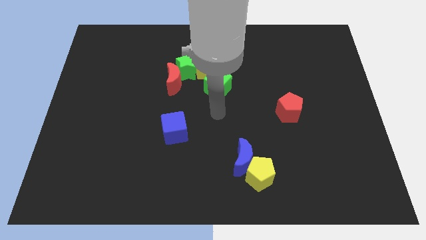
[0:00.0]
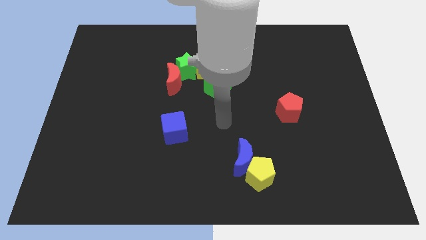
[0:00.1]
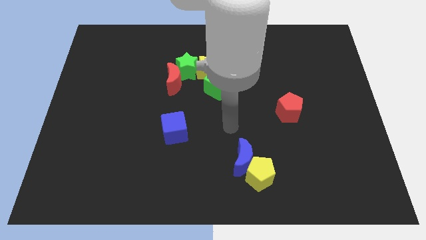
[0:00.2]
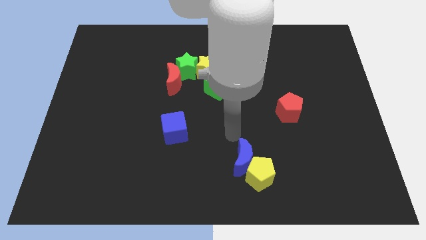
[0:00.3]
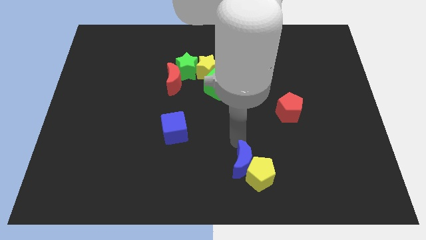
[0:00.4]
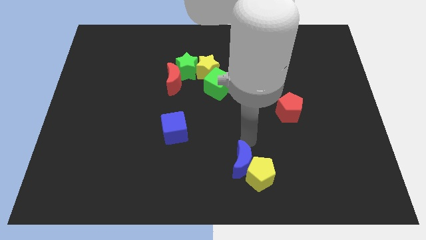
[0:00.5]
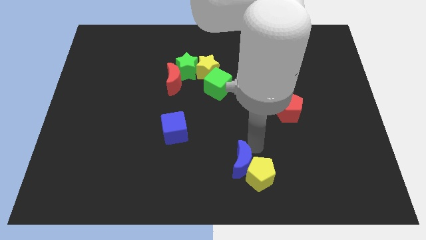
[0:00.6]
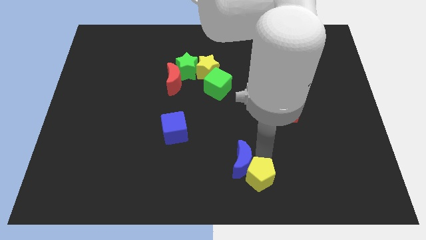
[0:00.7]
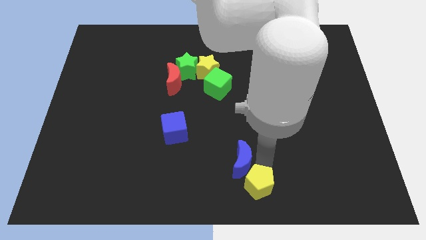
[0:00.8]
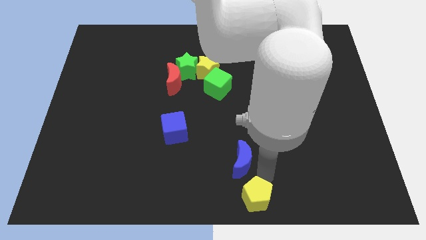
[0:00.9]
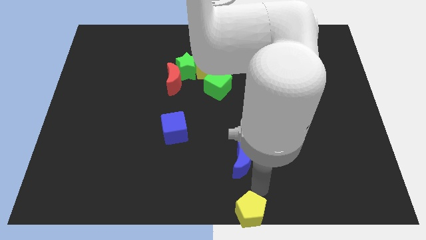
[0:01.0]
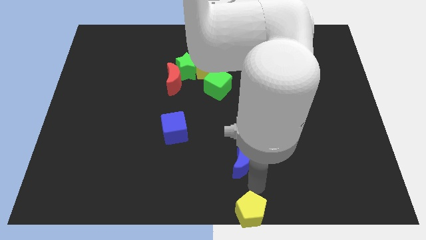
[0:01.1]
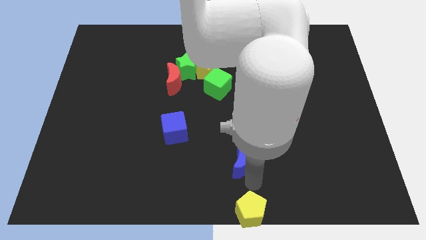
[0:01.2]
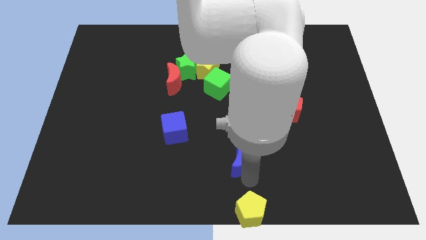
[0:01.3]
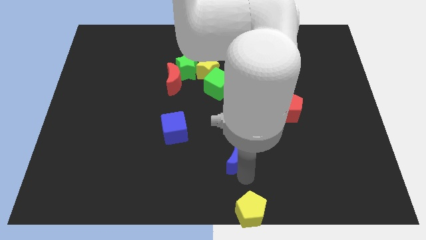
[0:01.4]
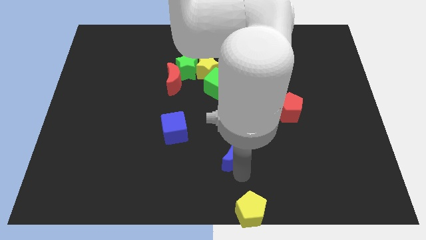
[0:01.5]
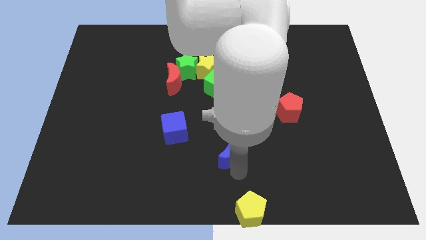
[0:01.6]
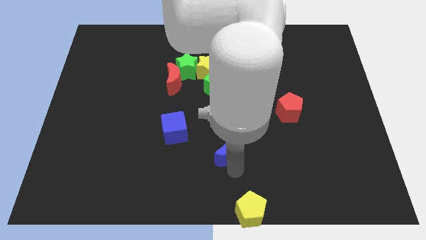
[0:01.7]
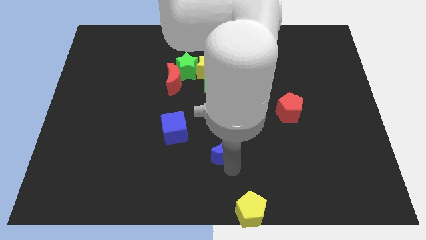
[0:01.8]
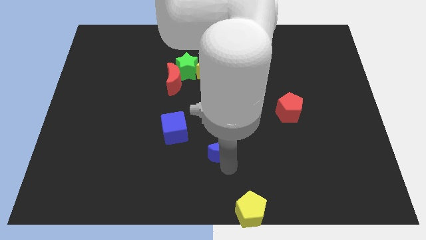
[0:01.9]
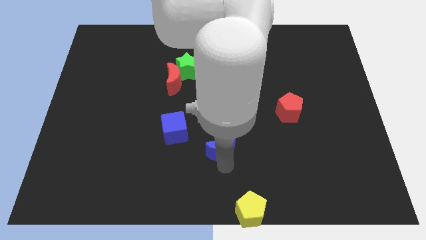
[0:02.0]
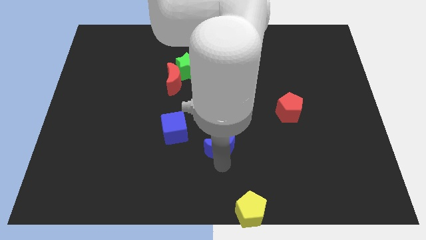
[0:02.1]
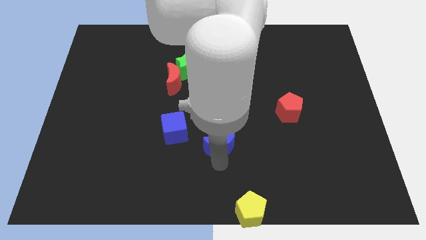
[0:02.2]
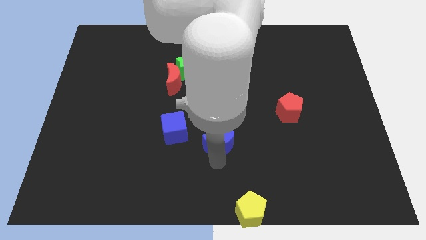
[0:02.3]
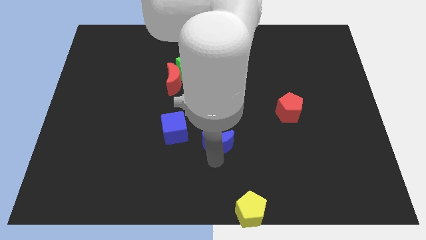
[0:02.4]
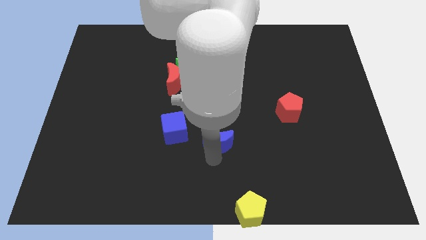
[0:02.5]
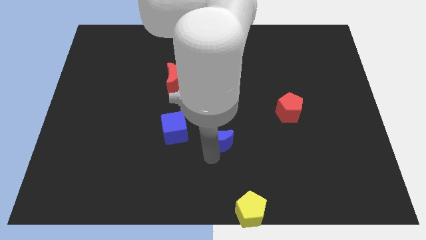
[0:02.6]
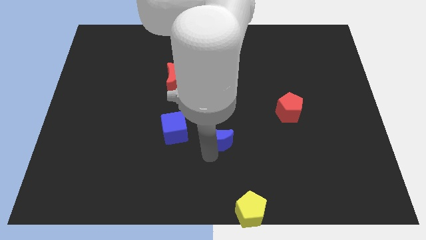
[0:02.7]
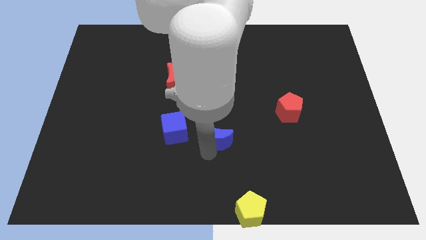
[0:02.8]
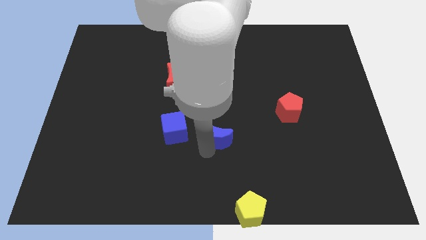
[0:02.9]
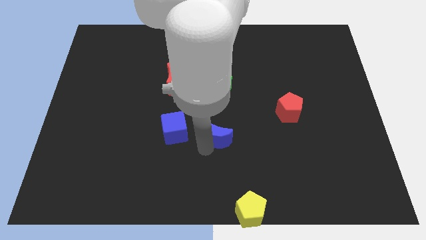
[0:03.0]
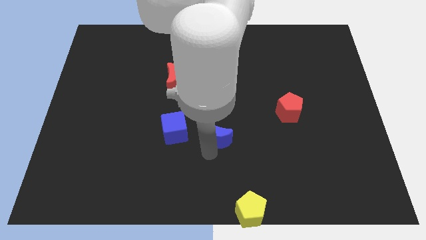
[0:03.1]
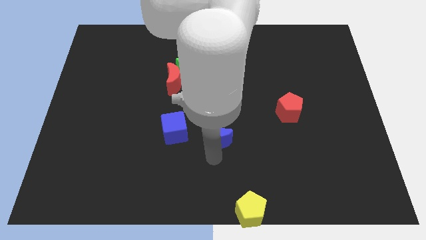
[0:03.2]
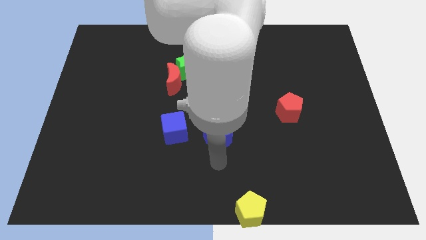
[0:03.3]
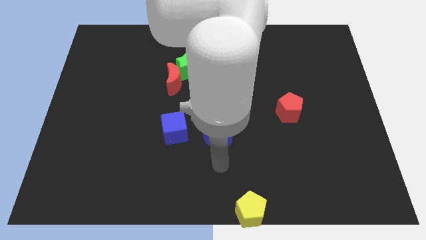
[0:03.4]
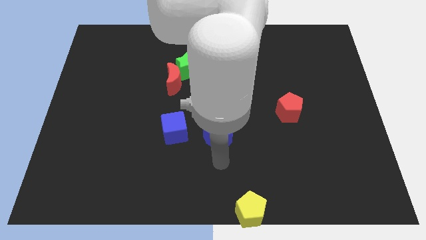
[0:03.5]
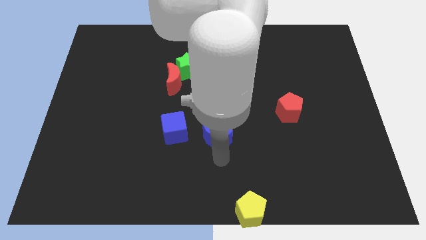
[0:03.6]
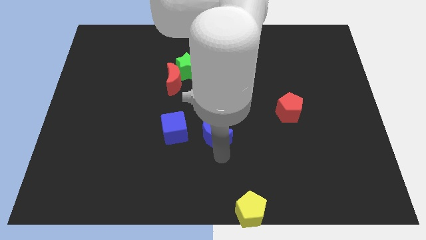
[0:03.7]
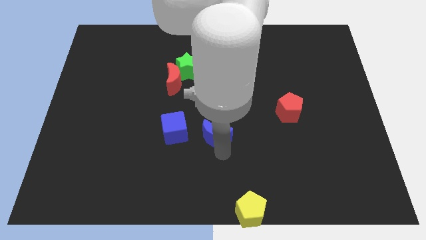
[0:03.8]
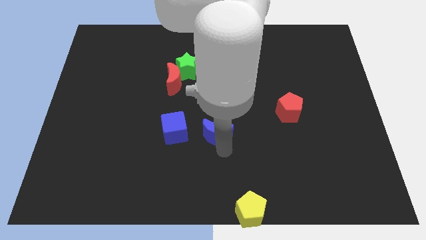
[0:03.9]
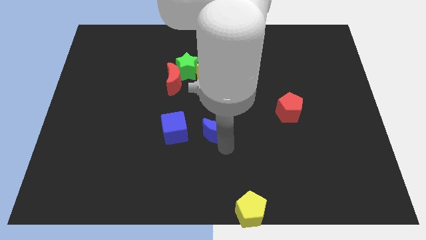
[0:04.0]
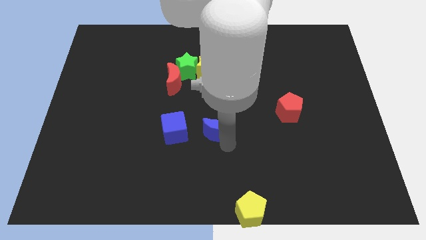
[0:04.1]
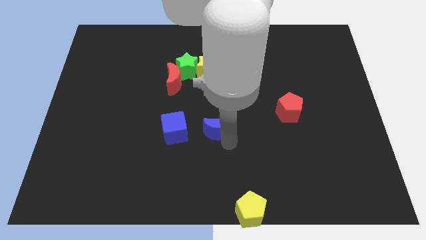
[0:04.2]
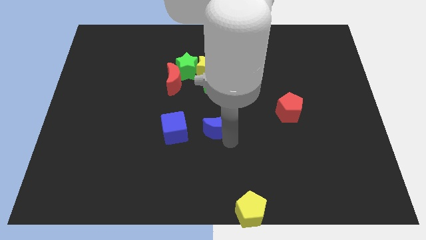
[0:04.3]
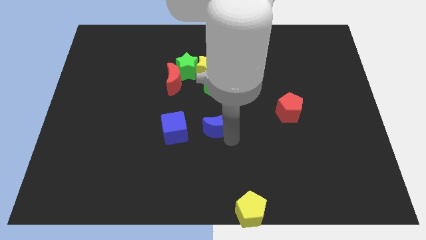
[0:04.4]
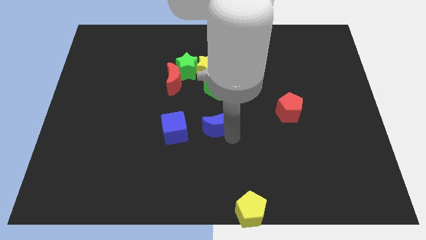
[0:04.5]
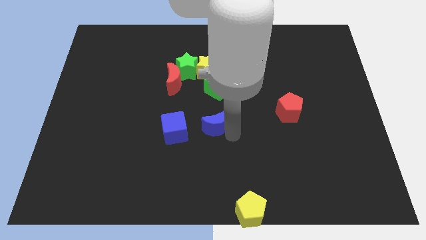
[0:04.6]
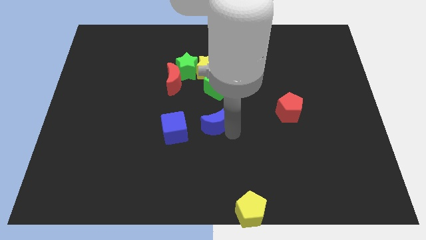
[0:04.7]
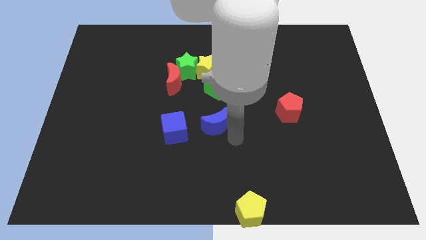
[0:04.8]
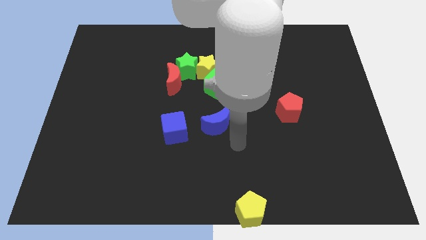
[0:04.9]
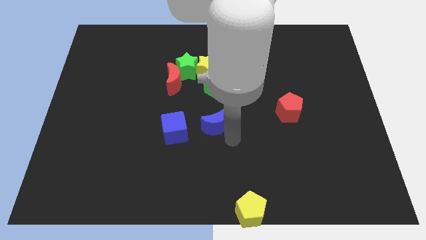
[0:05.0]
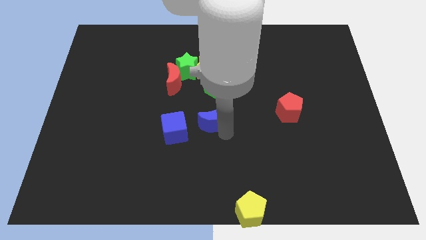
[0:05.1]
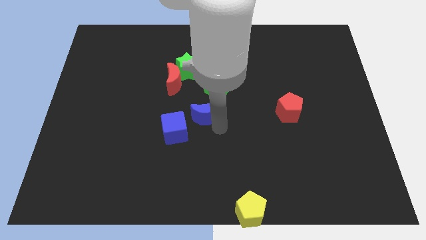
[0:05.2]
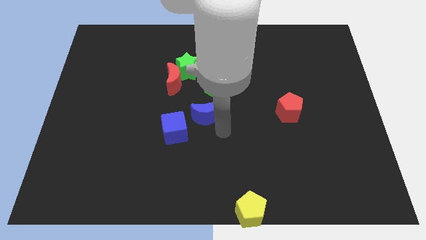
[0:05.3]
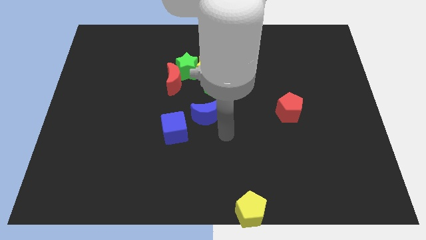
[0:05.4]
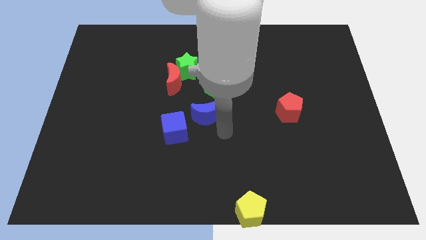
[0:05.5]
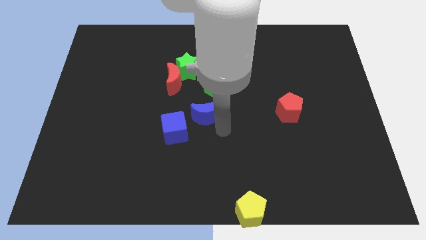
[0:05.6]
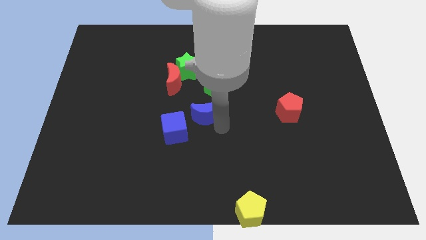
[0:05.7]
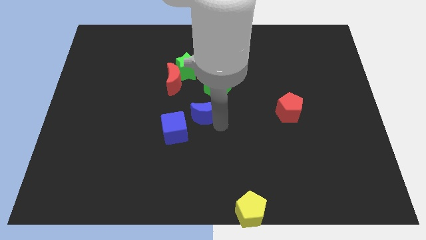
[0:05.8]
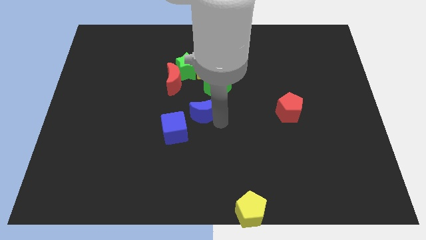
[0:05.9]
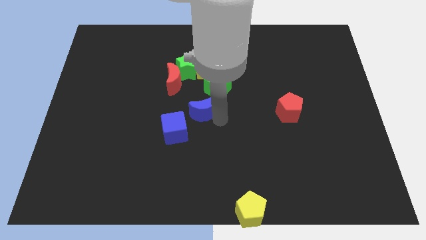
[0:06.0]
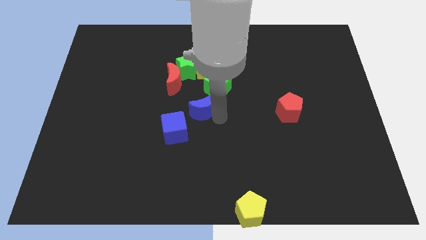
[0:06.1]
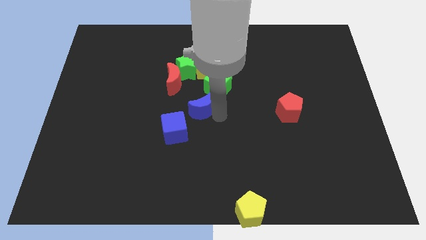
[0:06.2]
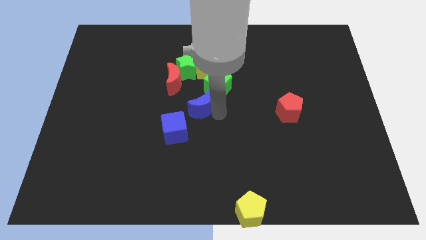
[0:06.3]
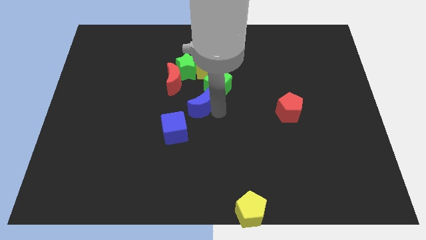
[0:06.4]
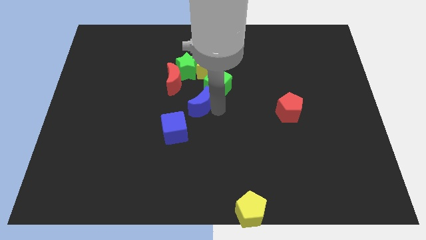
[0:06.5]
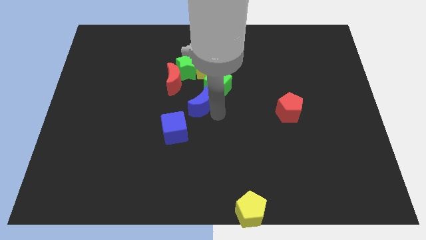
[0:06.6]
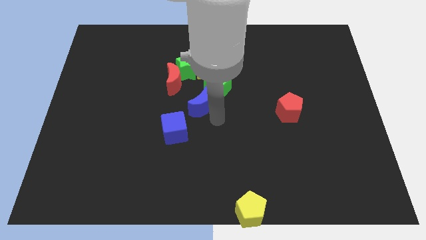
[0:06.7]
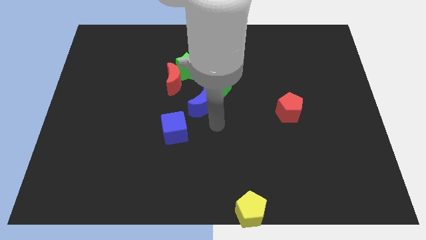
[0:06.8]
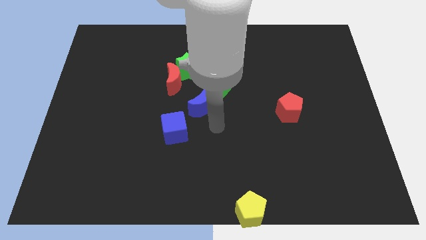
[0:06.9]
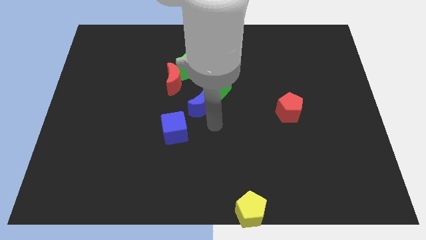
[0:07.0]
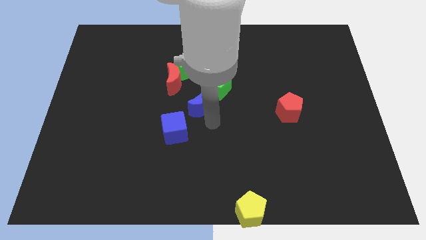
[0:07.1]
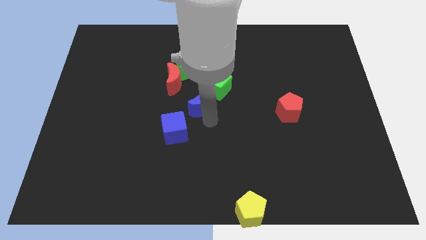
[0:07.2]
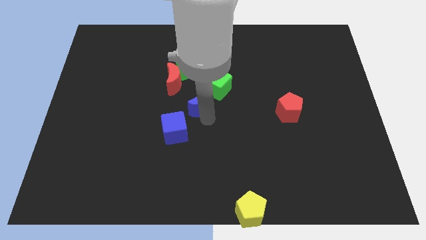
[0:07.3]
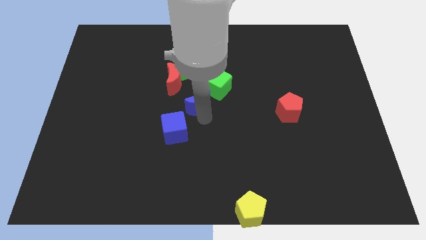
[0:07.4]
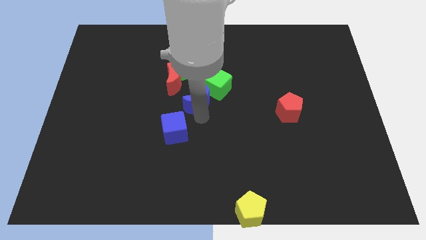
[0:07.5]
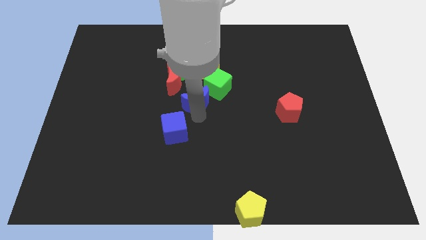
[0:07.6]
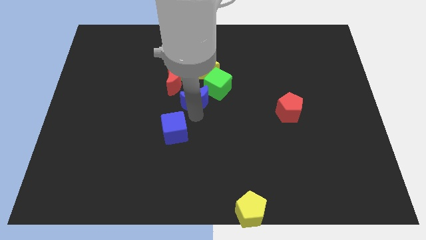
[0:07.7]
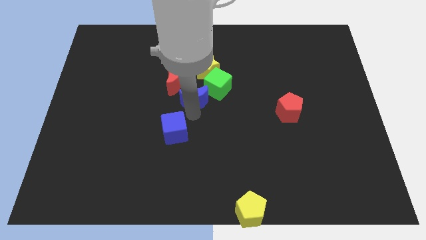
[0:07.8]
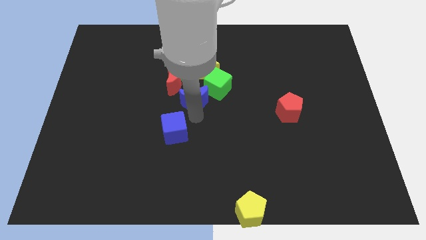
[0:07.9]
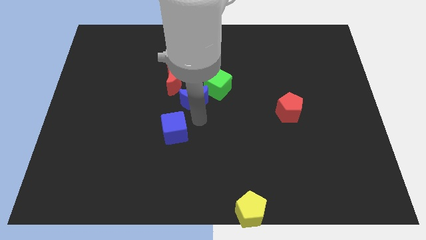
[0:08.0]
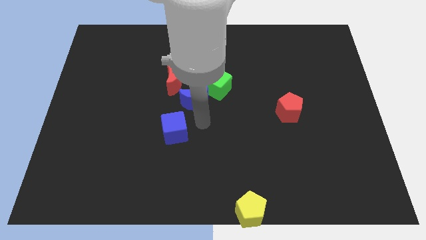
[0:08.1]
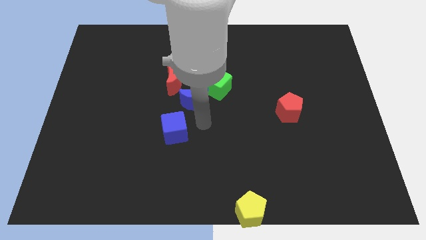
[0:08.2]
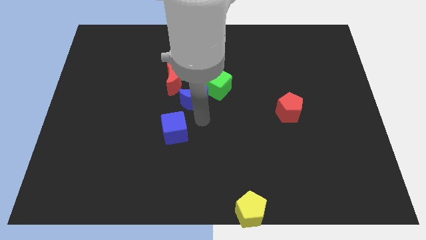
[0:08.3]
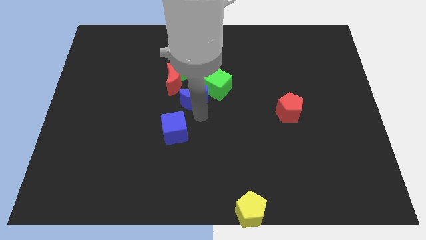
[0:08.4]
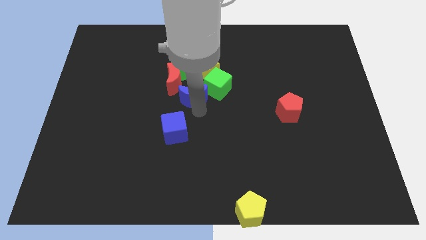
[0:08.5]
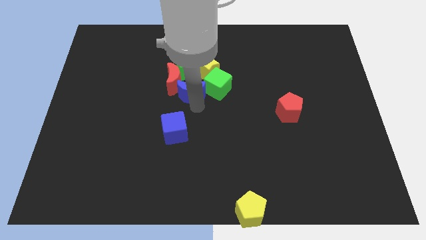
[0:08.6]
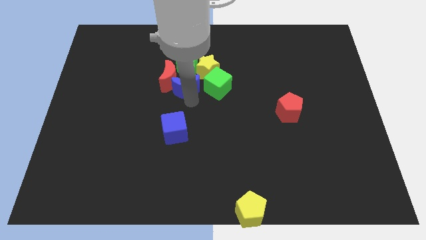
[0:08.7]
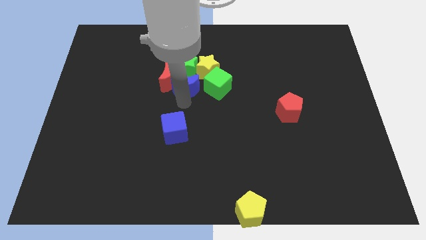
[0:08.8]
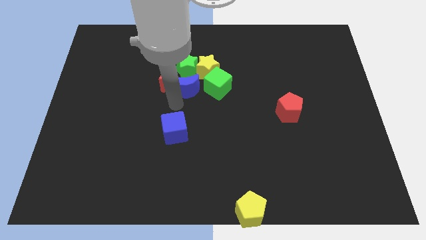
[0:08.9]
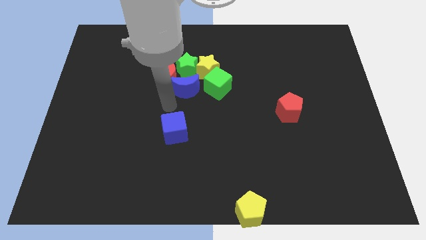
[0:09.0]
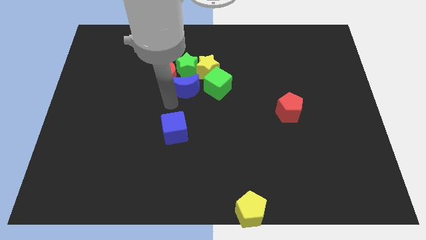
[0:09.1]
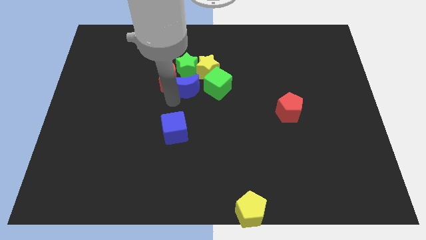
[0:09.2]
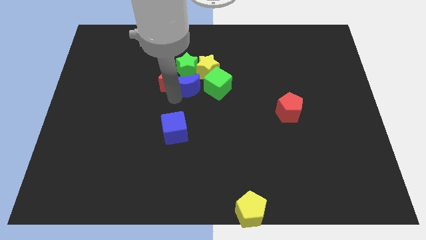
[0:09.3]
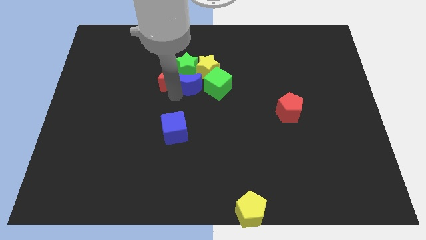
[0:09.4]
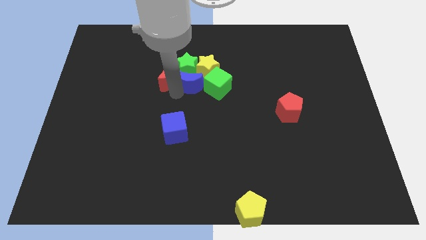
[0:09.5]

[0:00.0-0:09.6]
push the blue moon next to the yellow star
